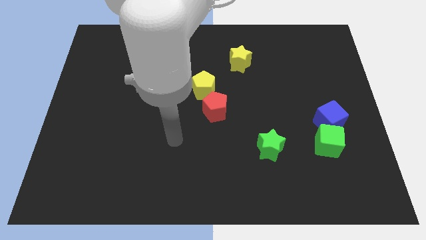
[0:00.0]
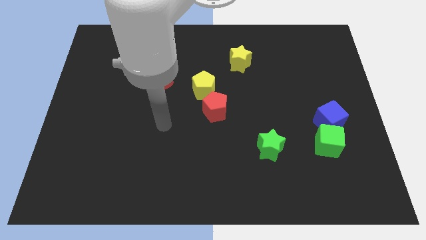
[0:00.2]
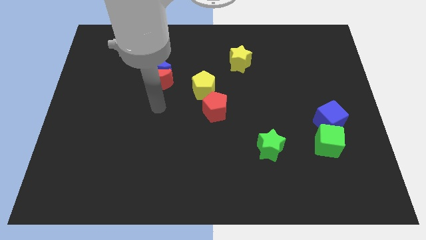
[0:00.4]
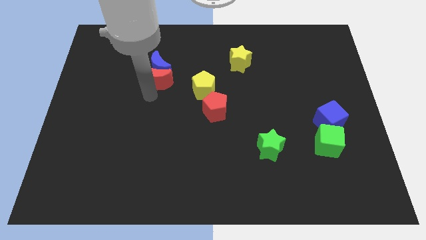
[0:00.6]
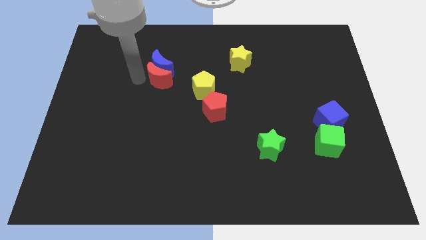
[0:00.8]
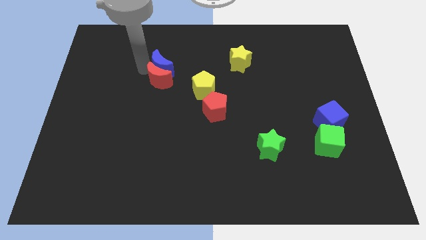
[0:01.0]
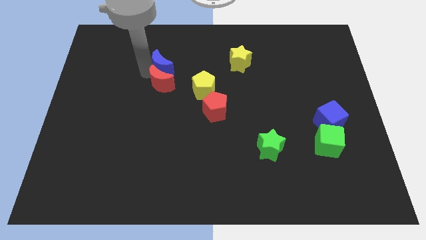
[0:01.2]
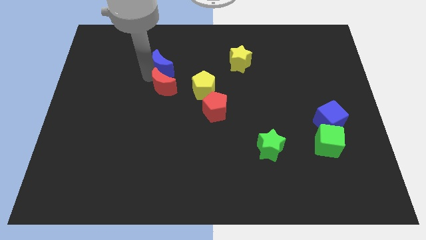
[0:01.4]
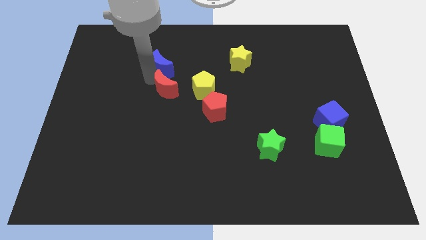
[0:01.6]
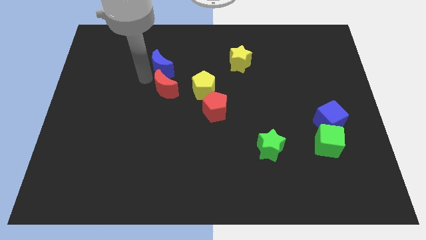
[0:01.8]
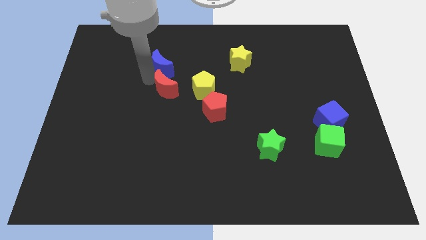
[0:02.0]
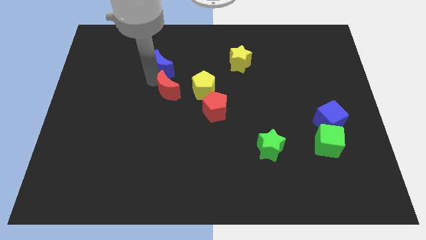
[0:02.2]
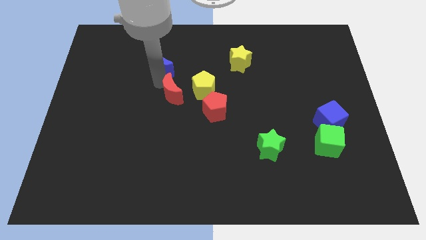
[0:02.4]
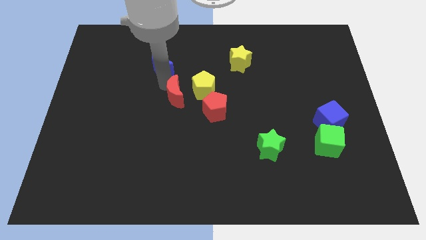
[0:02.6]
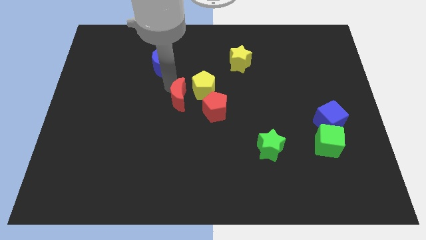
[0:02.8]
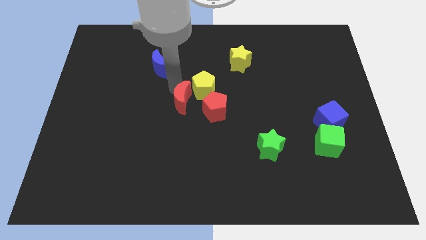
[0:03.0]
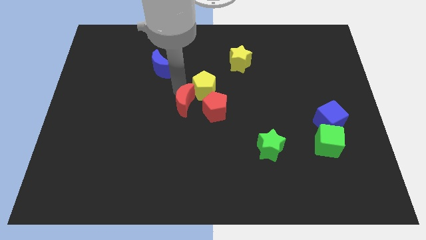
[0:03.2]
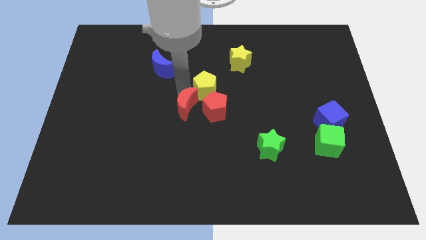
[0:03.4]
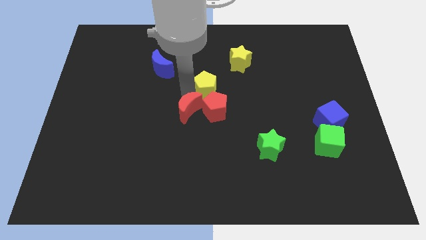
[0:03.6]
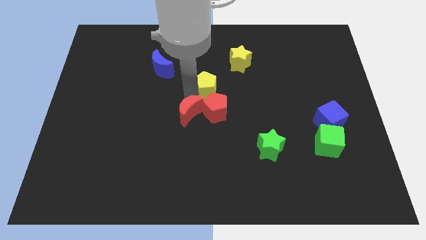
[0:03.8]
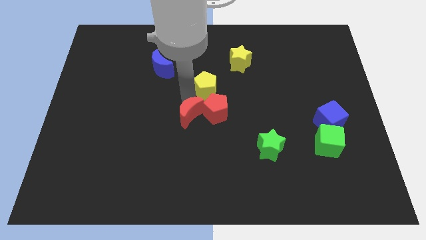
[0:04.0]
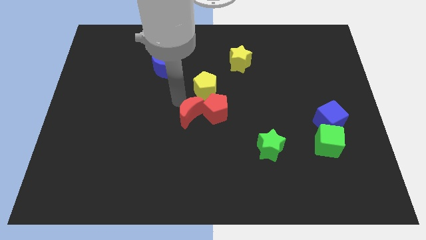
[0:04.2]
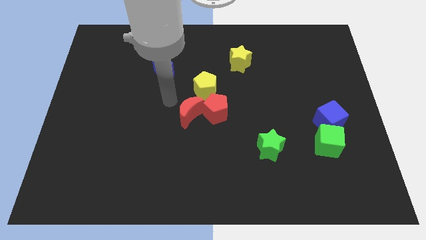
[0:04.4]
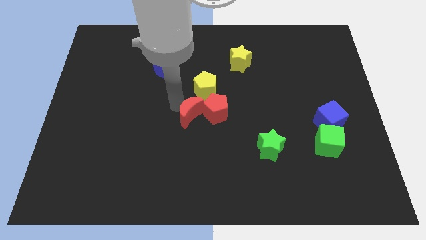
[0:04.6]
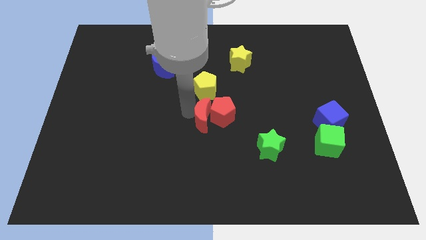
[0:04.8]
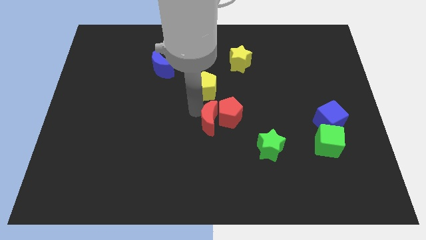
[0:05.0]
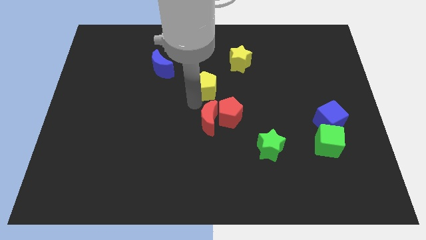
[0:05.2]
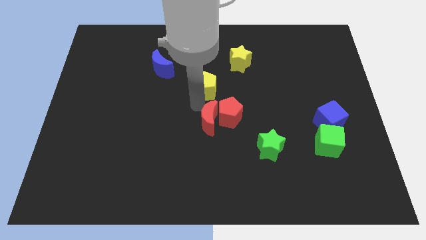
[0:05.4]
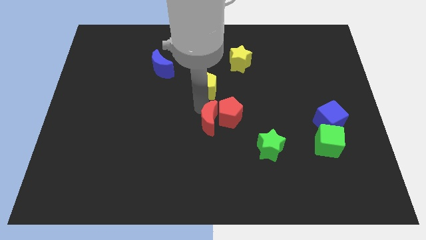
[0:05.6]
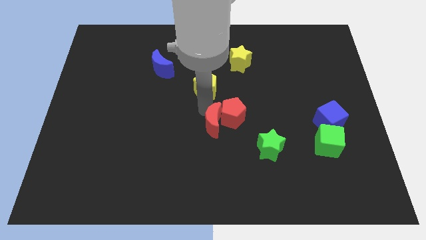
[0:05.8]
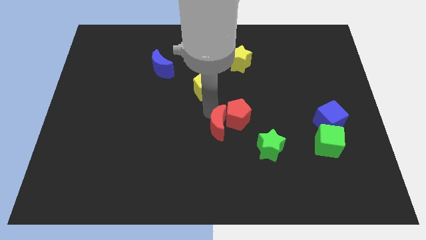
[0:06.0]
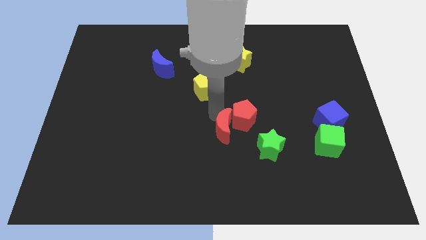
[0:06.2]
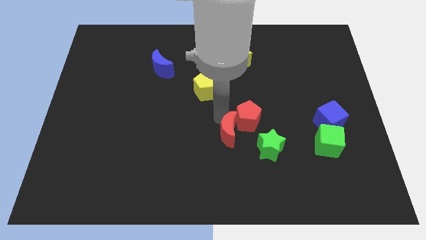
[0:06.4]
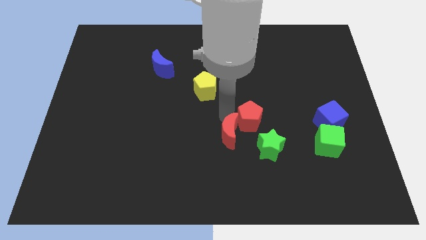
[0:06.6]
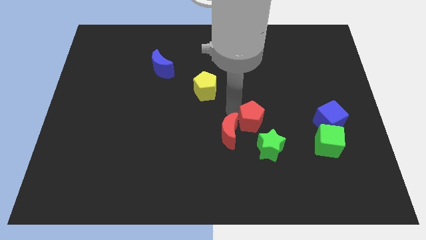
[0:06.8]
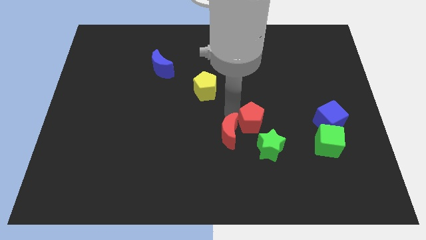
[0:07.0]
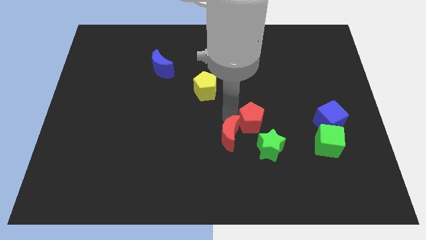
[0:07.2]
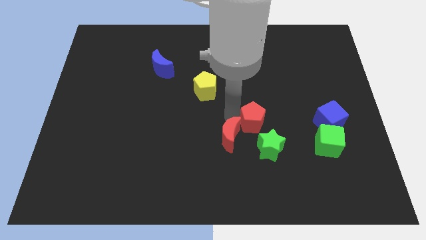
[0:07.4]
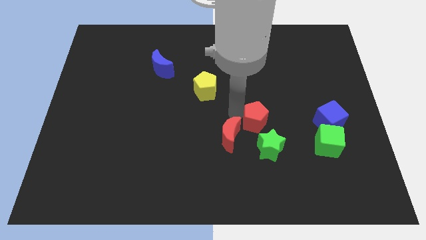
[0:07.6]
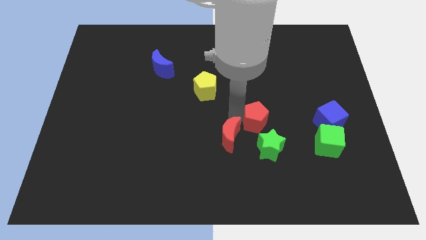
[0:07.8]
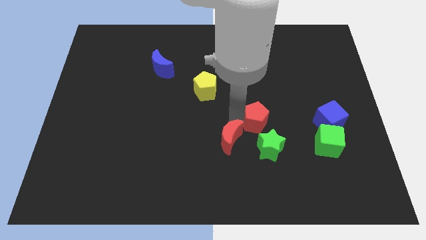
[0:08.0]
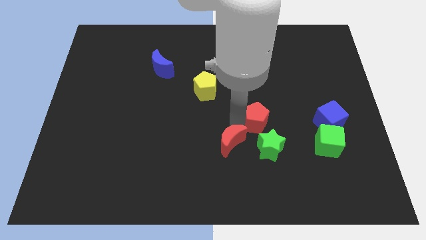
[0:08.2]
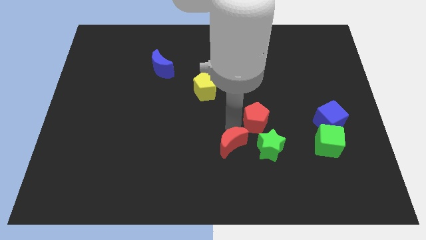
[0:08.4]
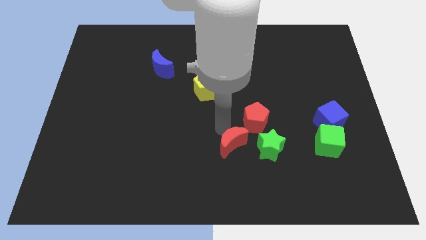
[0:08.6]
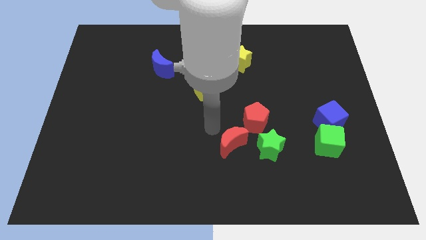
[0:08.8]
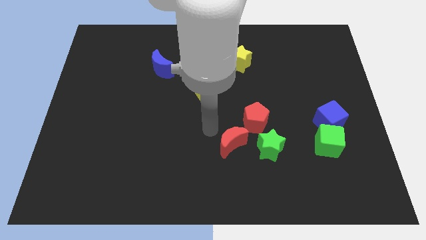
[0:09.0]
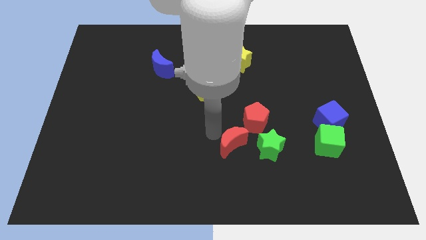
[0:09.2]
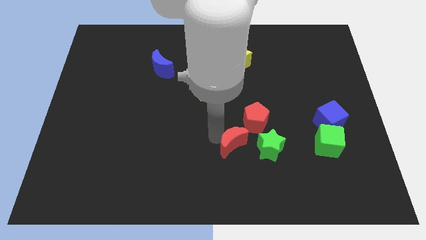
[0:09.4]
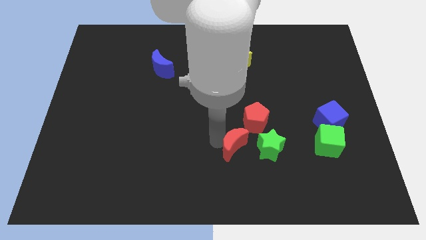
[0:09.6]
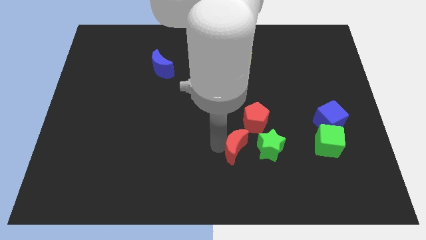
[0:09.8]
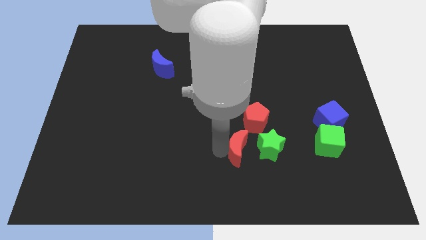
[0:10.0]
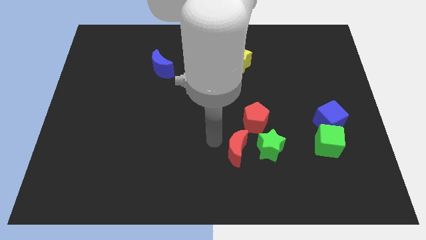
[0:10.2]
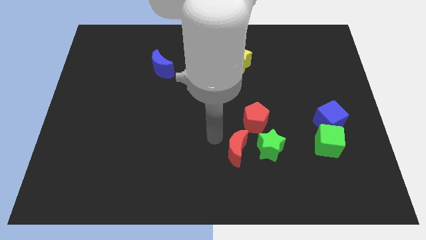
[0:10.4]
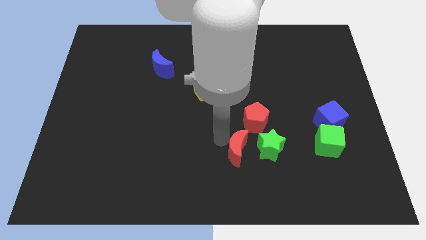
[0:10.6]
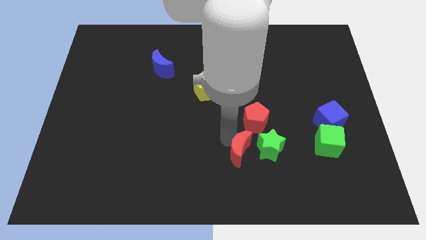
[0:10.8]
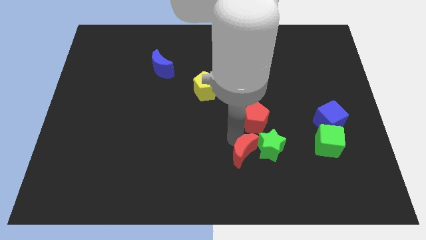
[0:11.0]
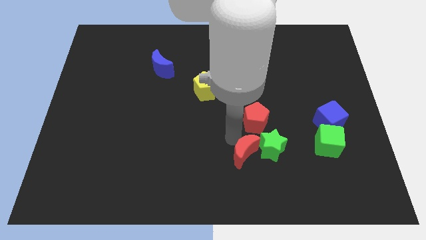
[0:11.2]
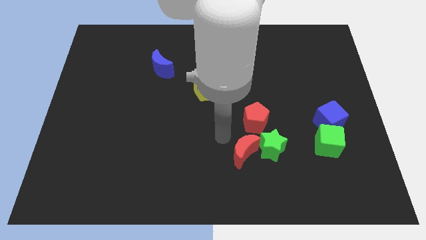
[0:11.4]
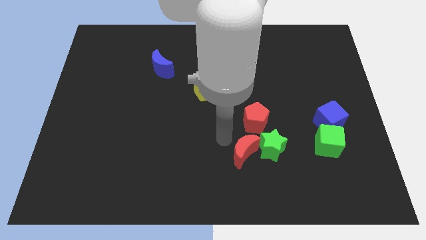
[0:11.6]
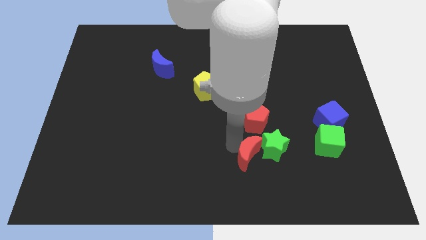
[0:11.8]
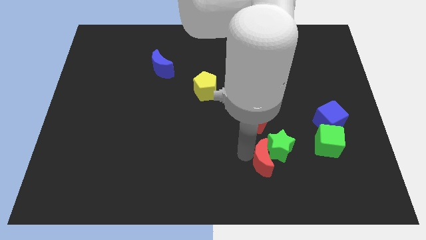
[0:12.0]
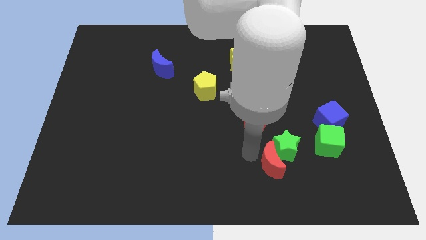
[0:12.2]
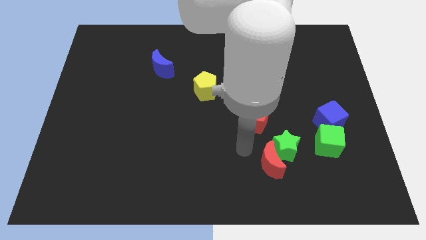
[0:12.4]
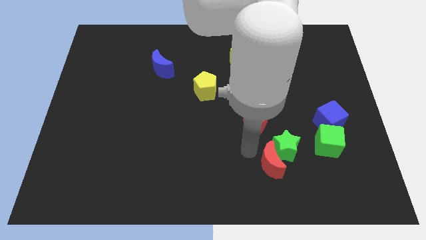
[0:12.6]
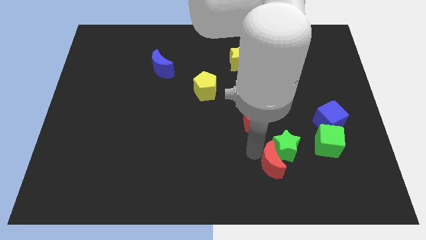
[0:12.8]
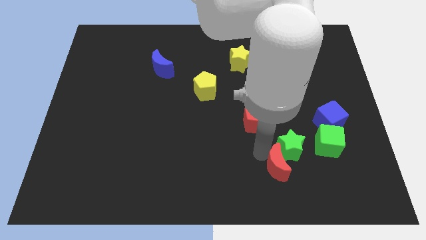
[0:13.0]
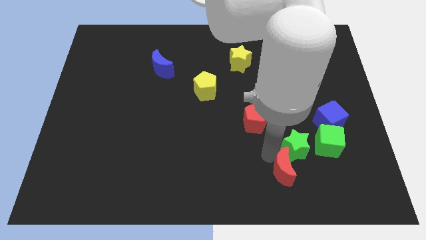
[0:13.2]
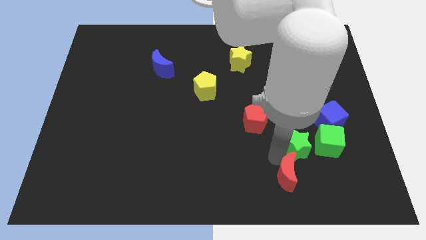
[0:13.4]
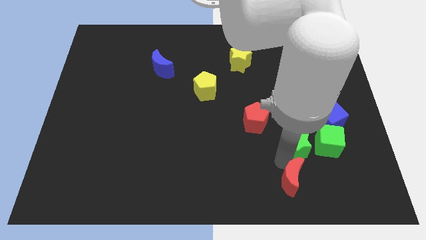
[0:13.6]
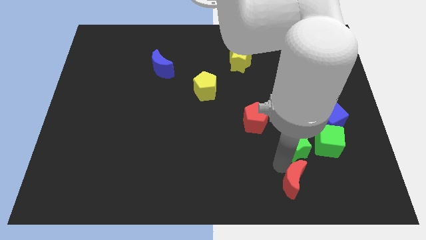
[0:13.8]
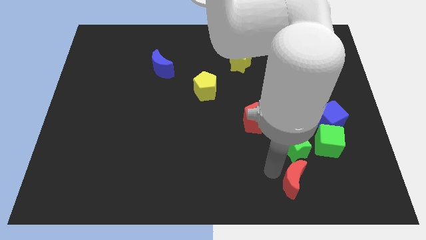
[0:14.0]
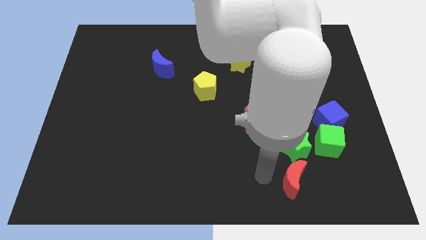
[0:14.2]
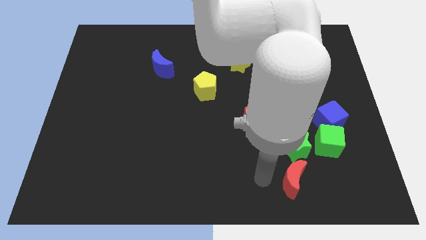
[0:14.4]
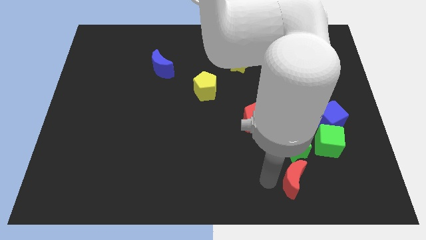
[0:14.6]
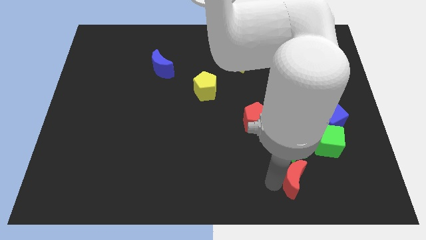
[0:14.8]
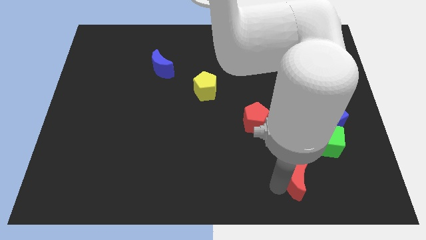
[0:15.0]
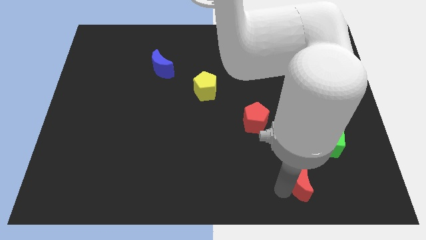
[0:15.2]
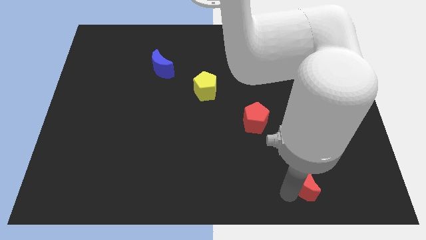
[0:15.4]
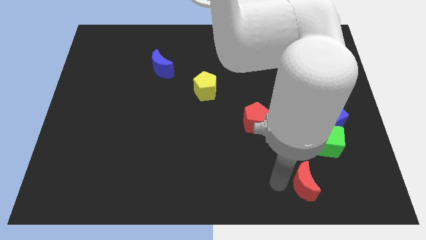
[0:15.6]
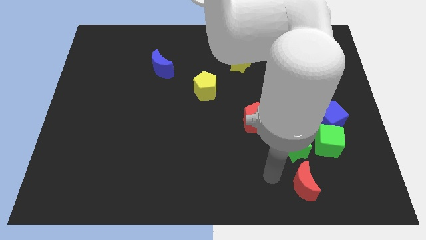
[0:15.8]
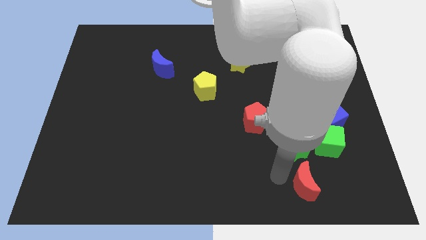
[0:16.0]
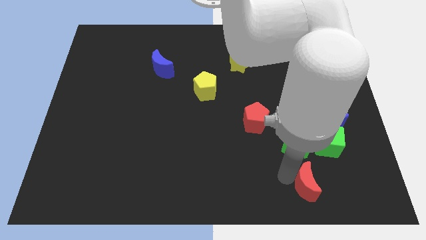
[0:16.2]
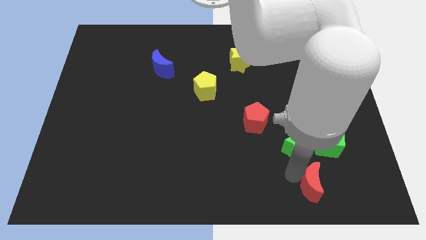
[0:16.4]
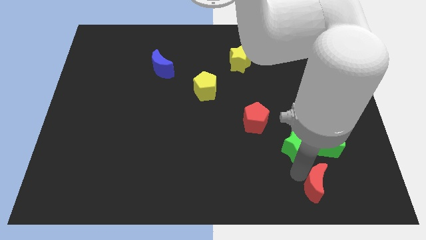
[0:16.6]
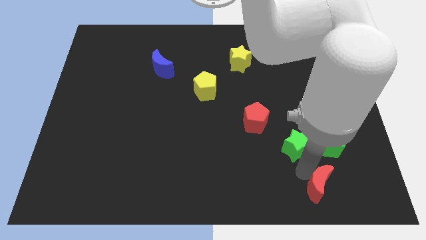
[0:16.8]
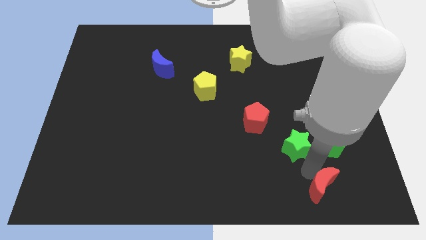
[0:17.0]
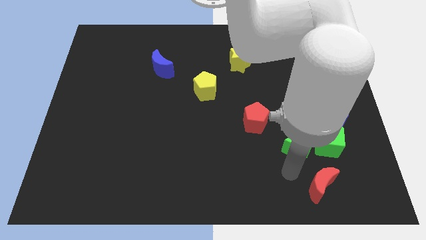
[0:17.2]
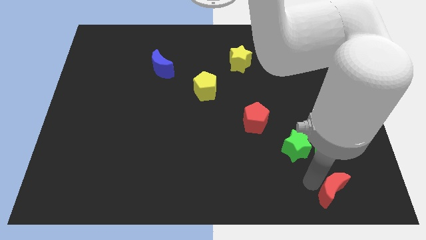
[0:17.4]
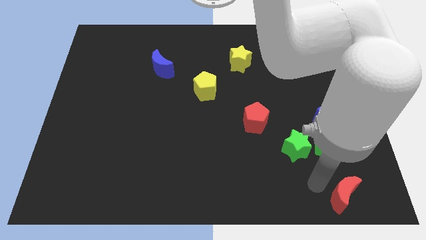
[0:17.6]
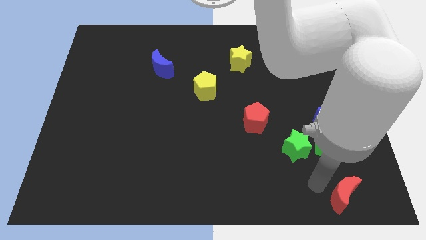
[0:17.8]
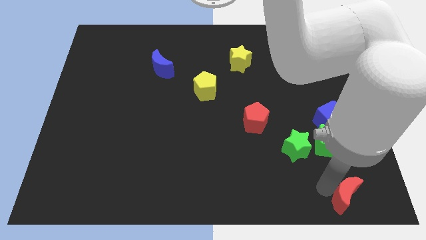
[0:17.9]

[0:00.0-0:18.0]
push the red moon to the lower right corner
